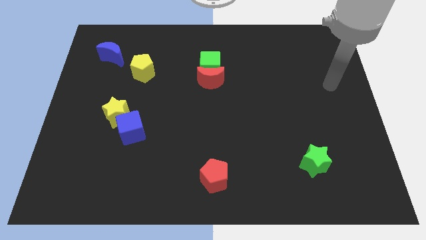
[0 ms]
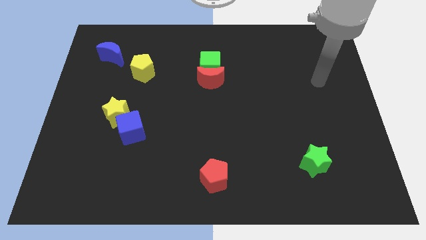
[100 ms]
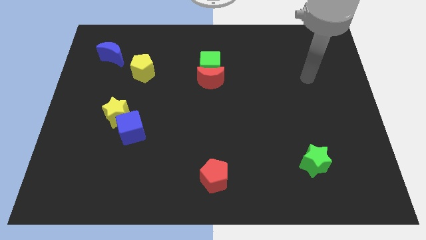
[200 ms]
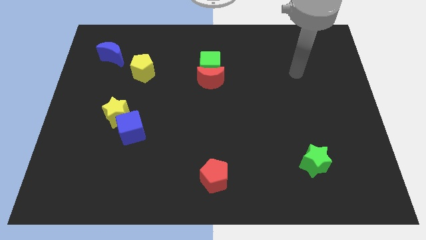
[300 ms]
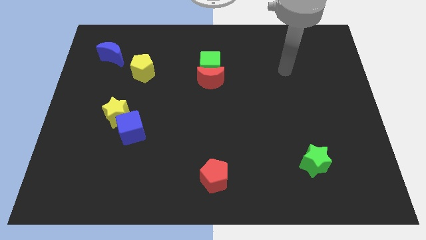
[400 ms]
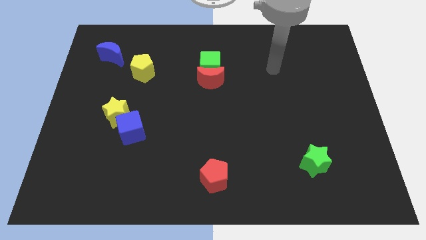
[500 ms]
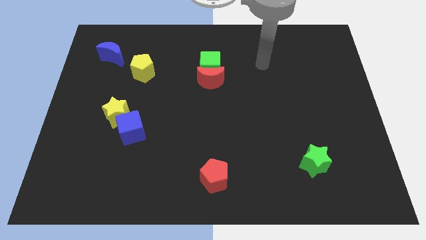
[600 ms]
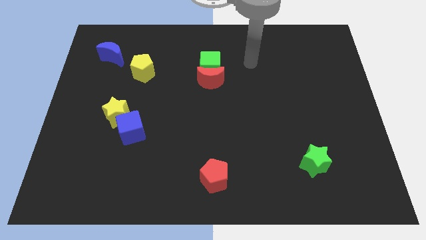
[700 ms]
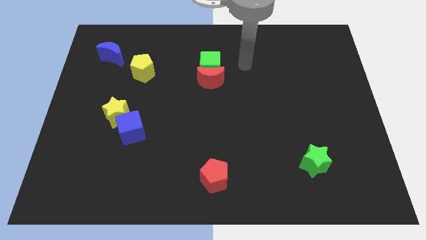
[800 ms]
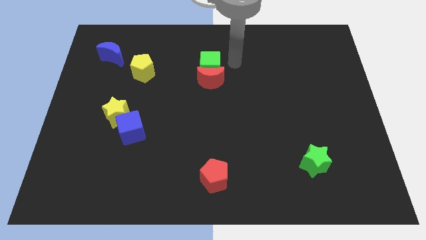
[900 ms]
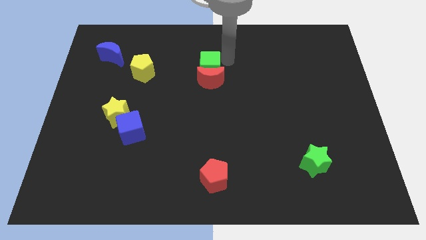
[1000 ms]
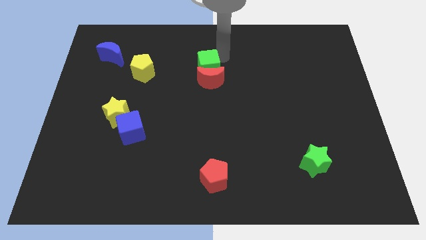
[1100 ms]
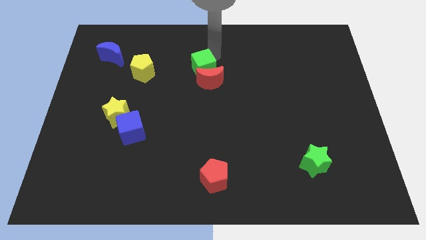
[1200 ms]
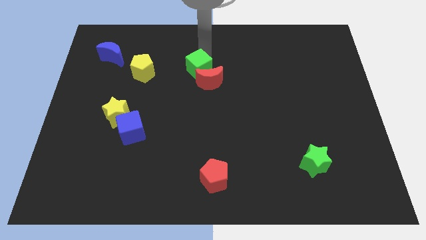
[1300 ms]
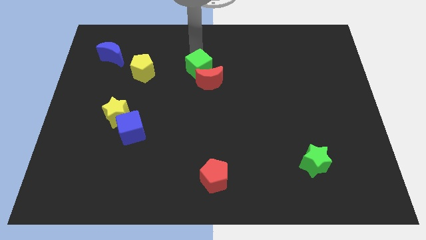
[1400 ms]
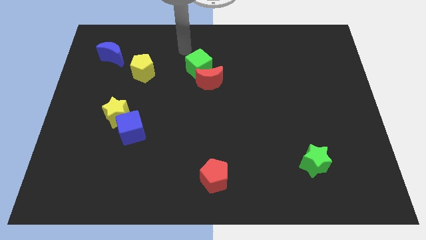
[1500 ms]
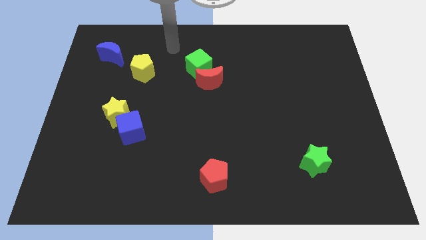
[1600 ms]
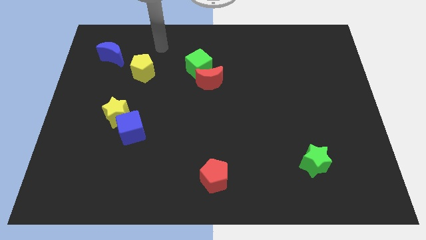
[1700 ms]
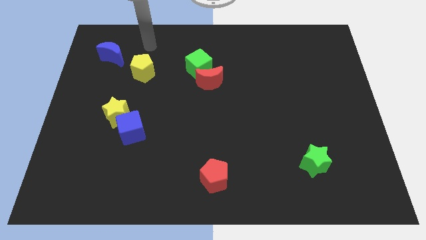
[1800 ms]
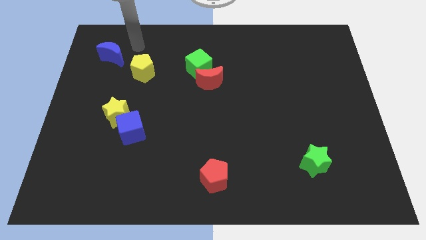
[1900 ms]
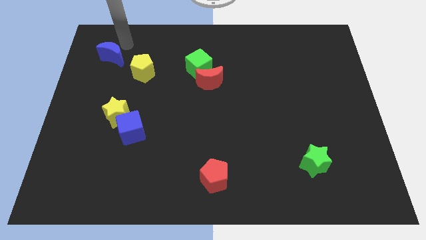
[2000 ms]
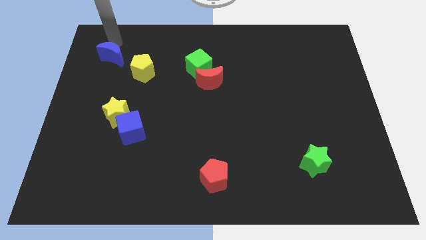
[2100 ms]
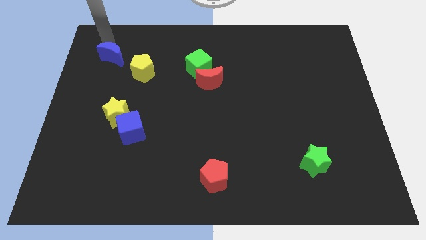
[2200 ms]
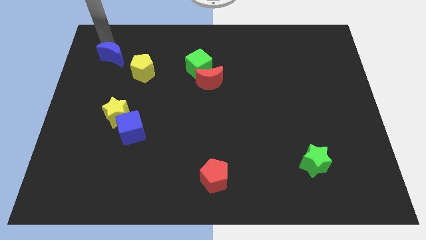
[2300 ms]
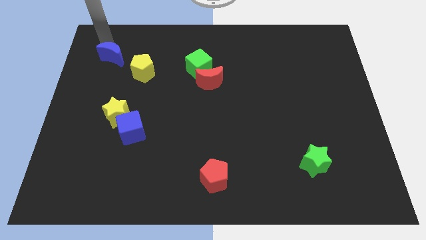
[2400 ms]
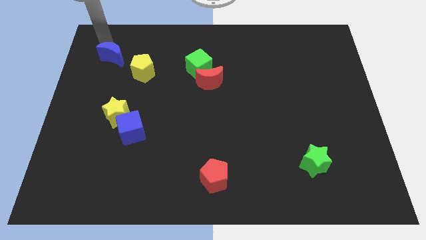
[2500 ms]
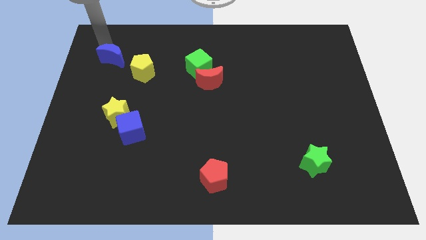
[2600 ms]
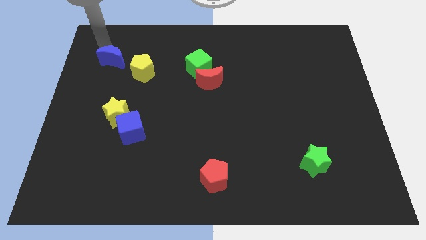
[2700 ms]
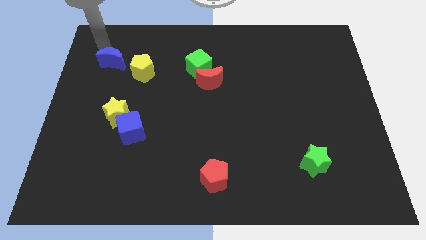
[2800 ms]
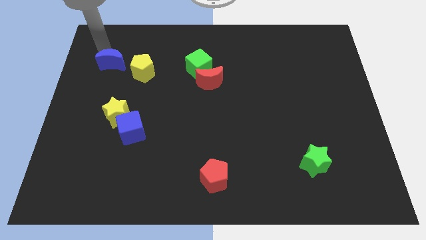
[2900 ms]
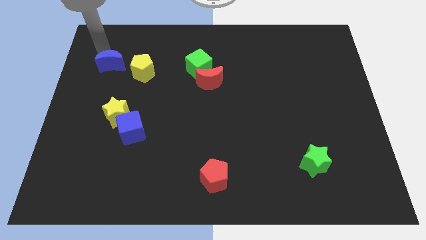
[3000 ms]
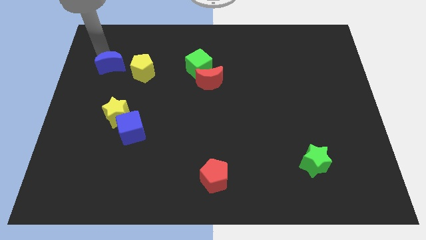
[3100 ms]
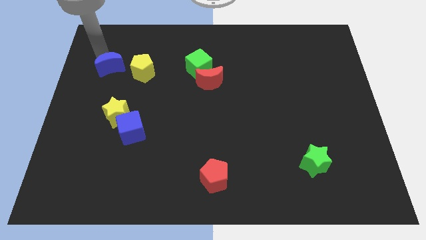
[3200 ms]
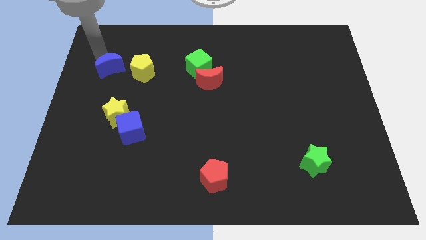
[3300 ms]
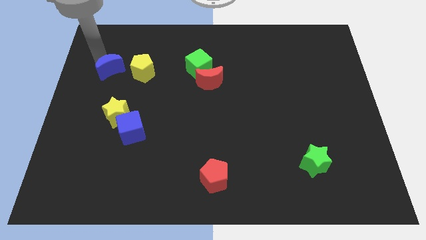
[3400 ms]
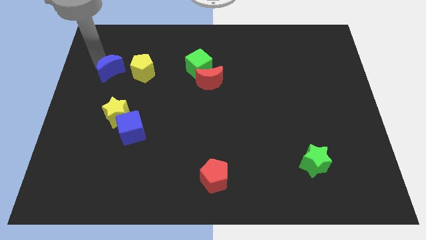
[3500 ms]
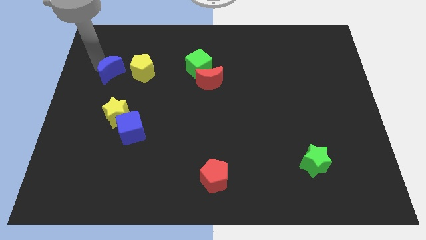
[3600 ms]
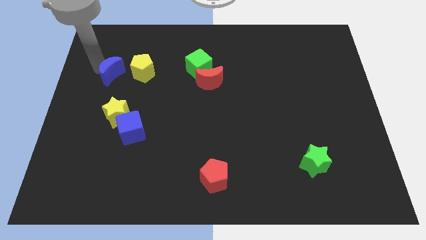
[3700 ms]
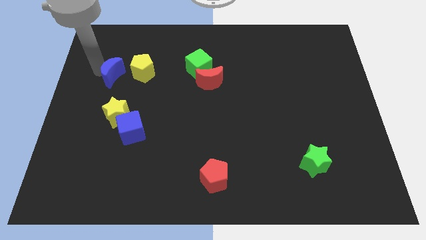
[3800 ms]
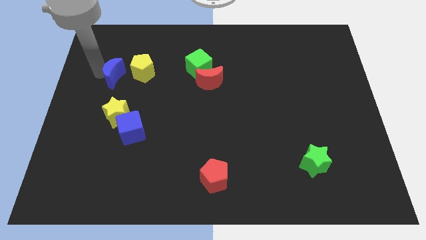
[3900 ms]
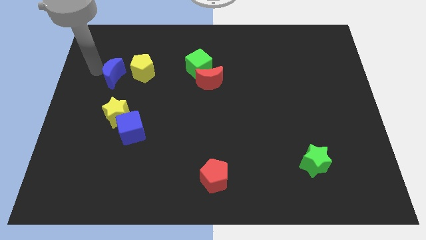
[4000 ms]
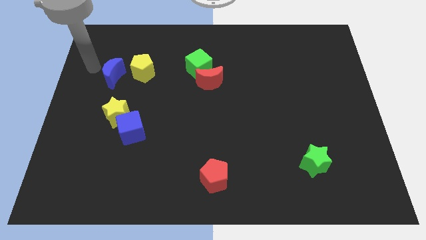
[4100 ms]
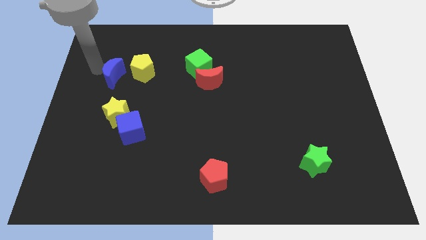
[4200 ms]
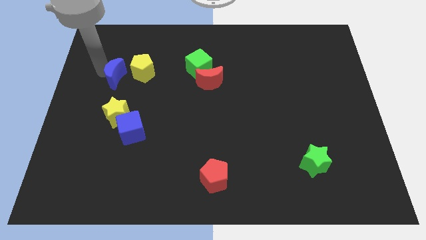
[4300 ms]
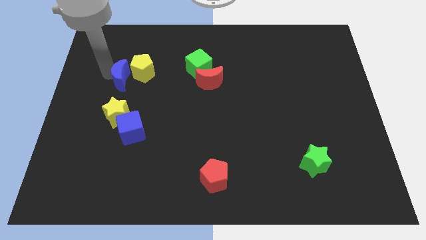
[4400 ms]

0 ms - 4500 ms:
slightly move the blue moon diagonally downwards and right

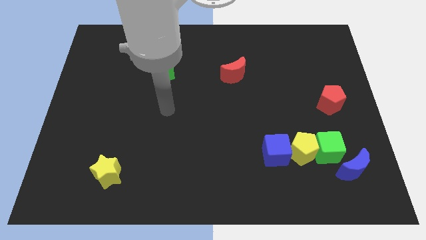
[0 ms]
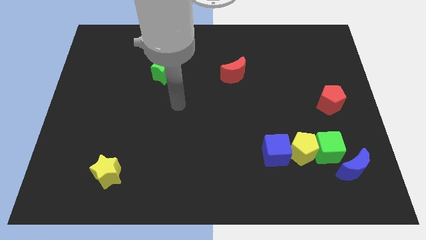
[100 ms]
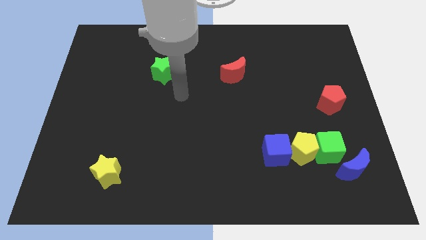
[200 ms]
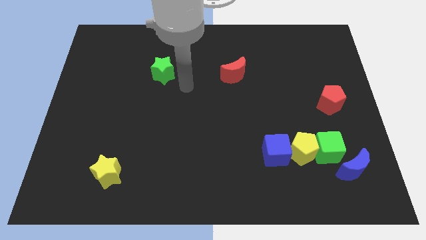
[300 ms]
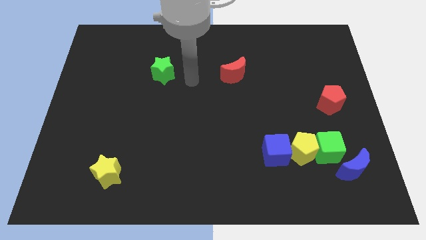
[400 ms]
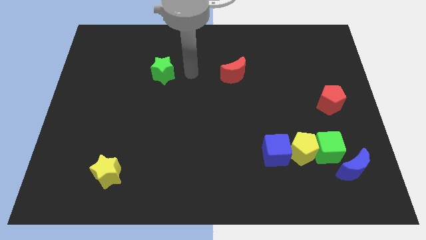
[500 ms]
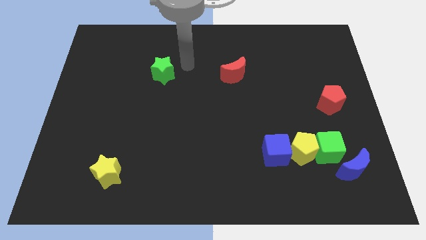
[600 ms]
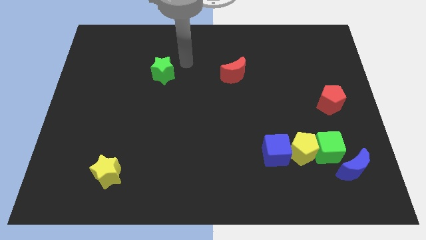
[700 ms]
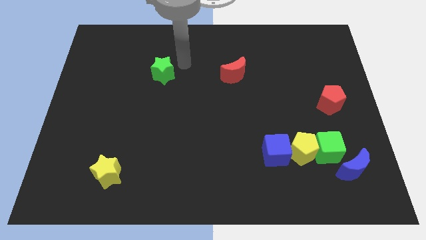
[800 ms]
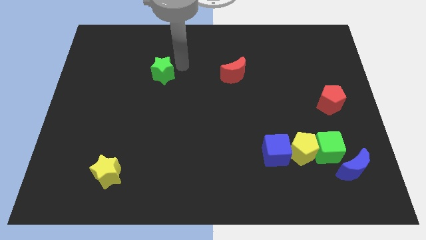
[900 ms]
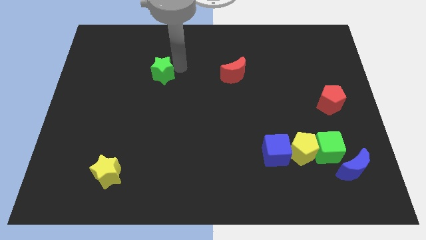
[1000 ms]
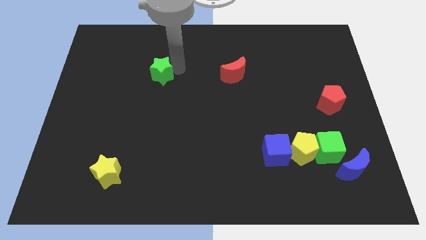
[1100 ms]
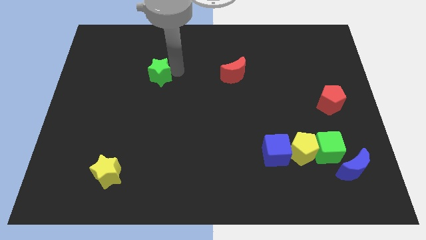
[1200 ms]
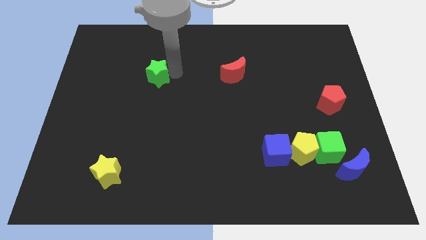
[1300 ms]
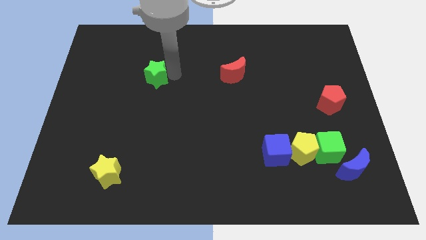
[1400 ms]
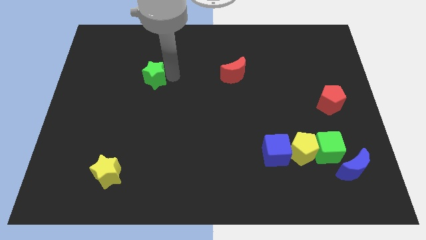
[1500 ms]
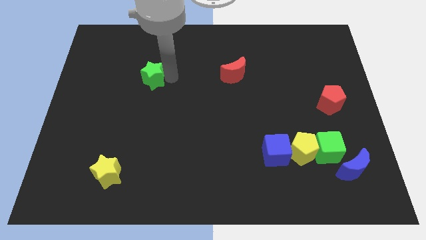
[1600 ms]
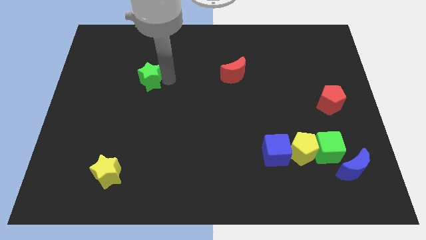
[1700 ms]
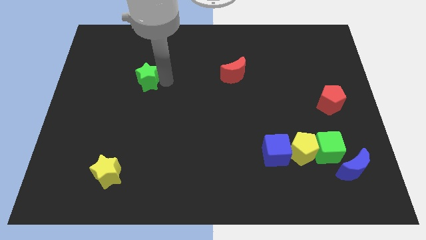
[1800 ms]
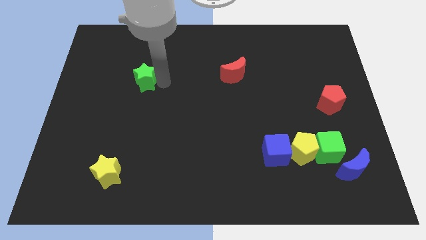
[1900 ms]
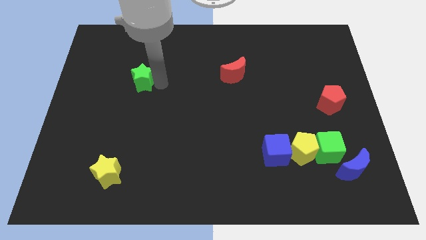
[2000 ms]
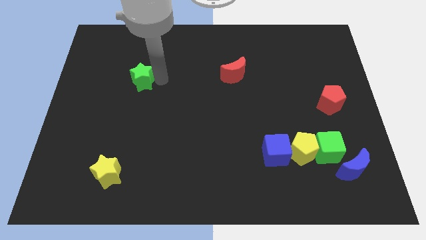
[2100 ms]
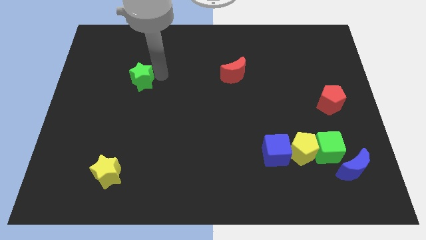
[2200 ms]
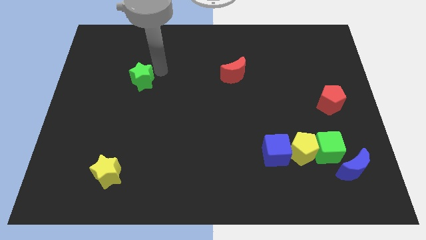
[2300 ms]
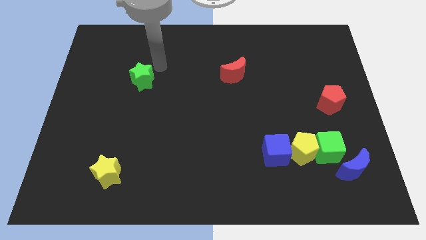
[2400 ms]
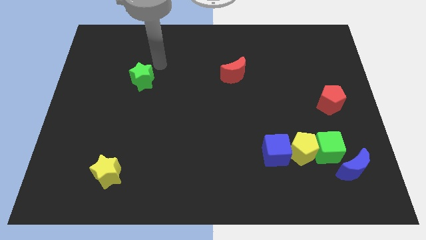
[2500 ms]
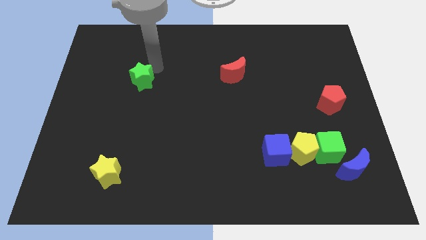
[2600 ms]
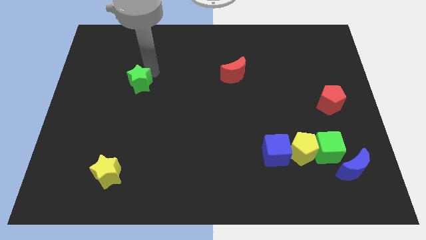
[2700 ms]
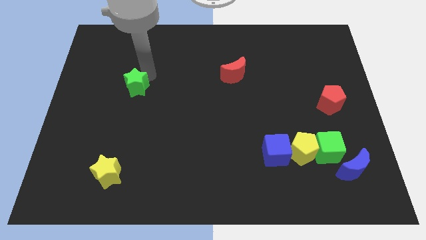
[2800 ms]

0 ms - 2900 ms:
slide the green star diagonally down and to the left a bit

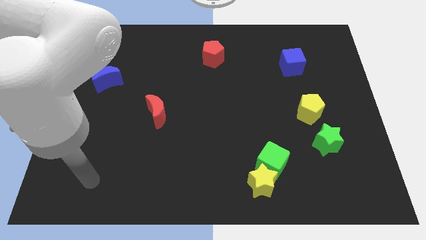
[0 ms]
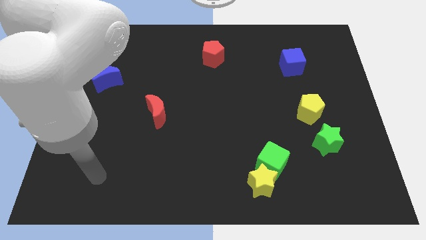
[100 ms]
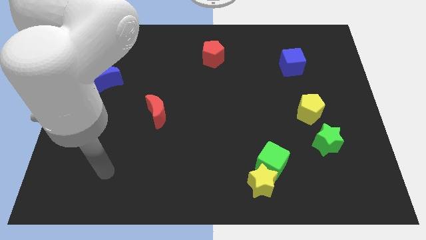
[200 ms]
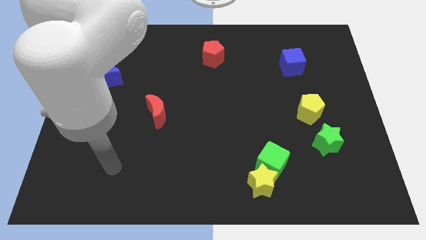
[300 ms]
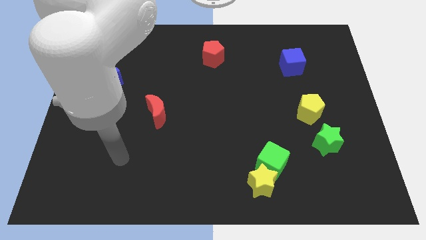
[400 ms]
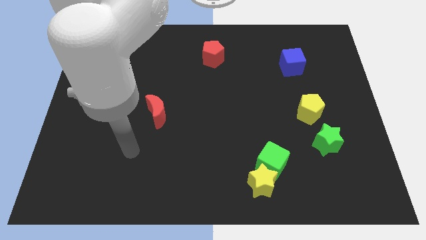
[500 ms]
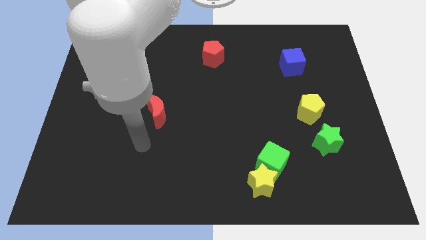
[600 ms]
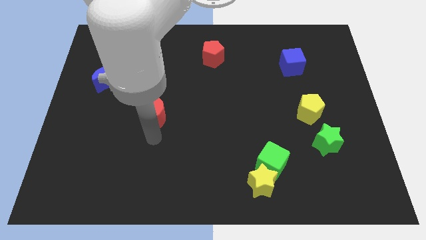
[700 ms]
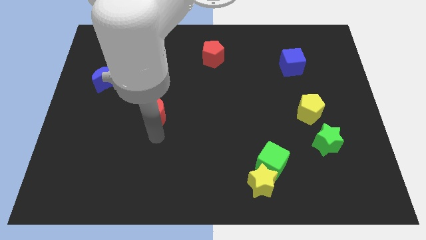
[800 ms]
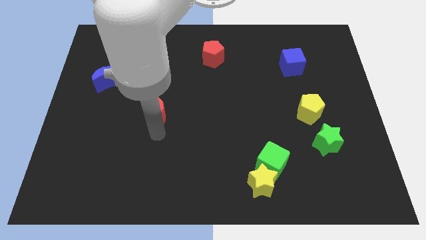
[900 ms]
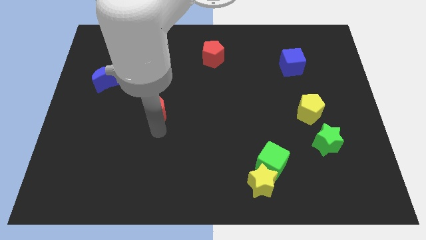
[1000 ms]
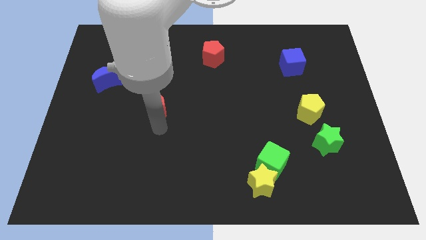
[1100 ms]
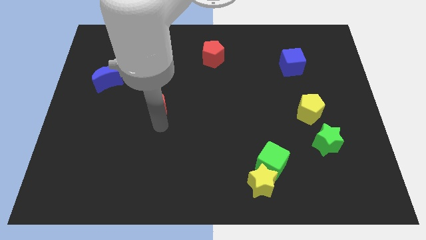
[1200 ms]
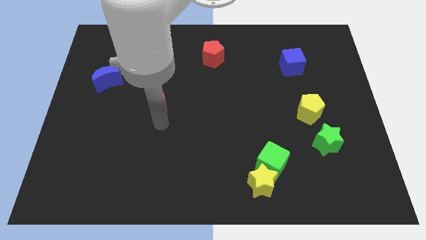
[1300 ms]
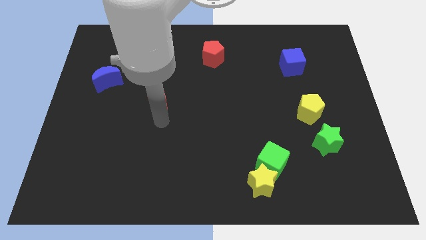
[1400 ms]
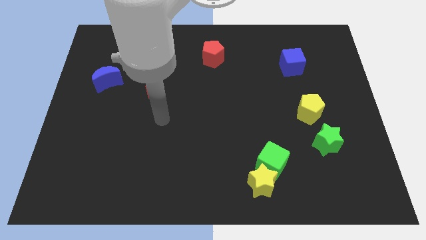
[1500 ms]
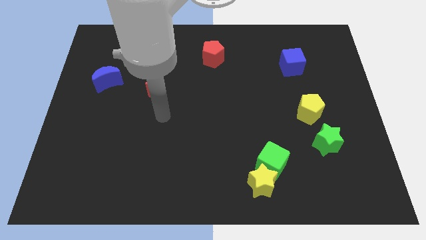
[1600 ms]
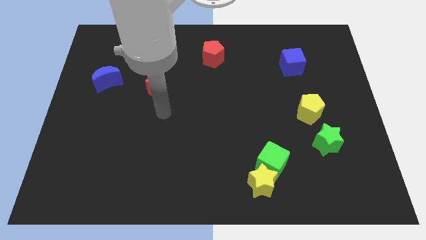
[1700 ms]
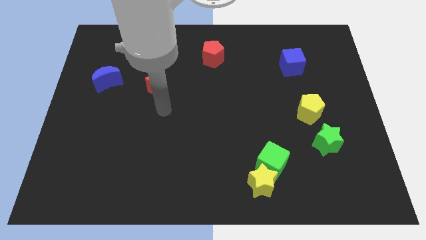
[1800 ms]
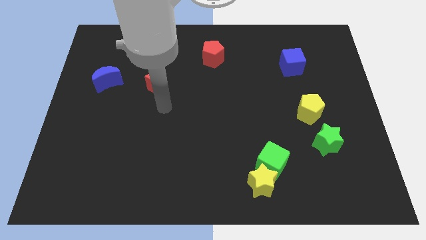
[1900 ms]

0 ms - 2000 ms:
slide the red moon a little up
